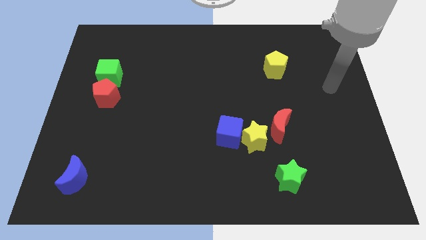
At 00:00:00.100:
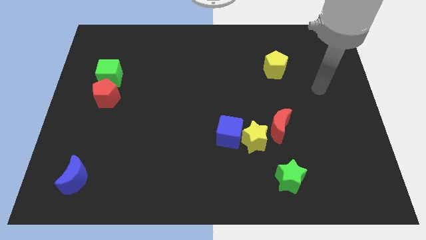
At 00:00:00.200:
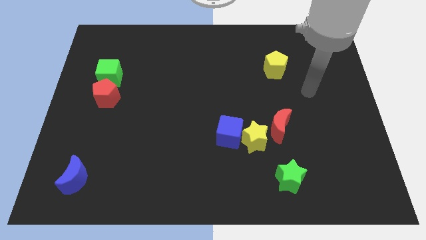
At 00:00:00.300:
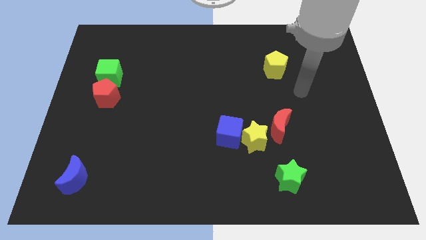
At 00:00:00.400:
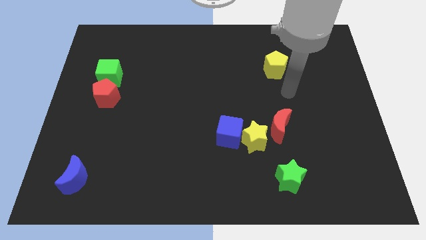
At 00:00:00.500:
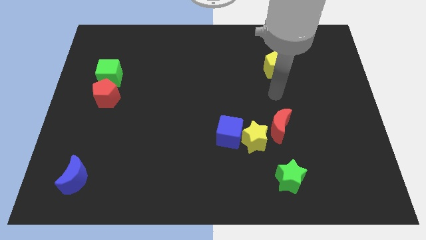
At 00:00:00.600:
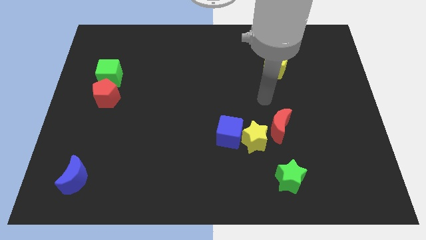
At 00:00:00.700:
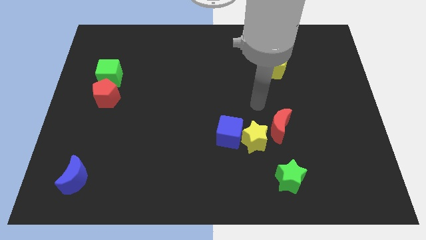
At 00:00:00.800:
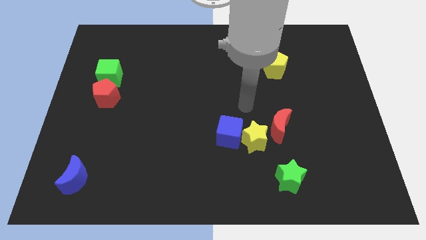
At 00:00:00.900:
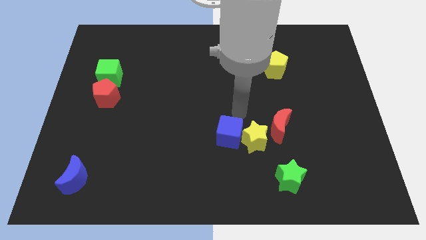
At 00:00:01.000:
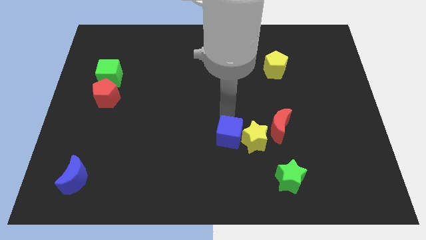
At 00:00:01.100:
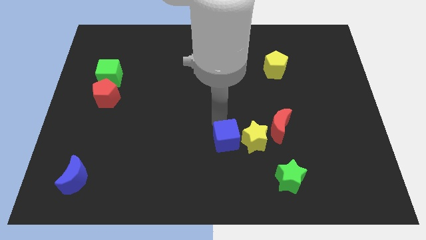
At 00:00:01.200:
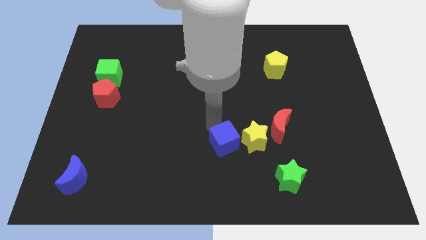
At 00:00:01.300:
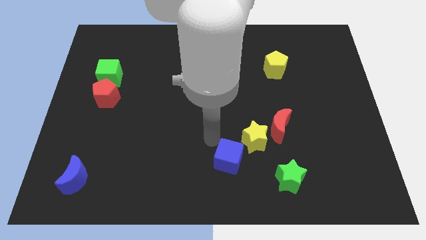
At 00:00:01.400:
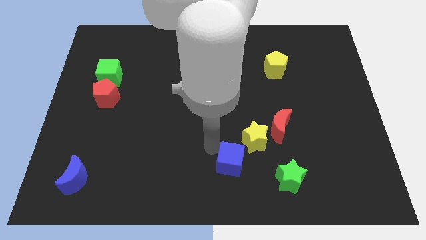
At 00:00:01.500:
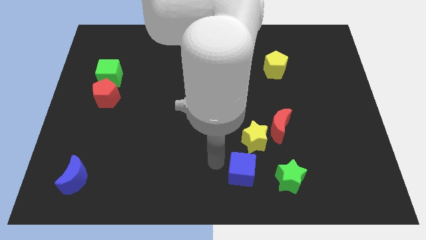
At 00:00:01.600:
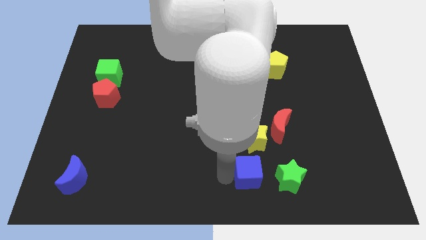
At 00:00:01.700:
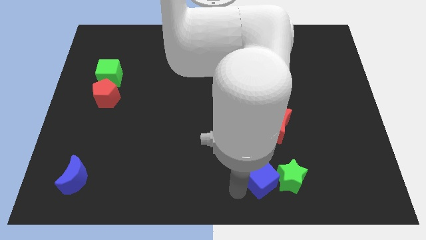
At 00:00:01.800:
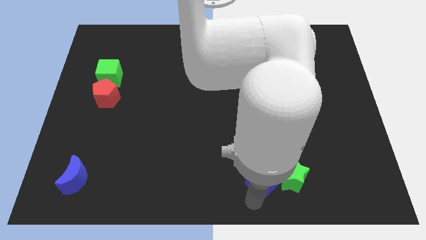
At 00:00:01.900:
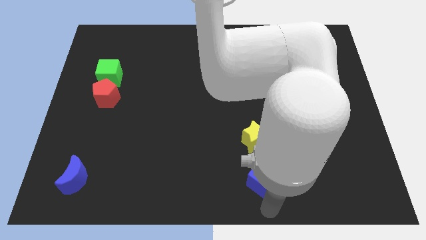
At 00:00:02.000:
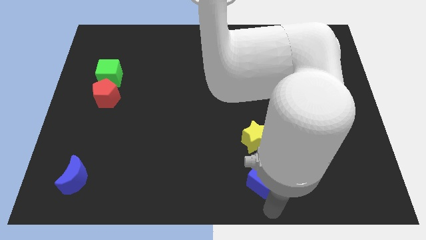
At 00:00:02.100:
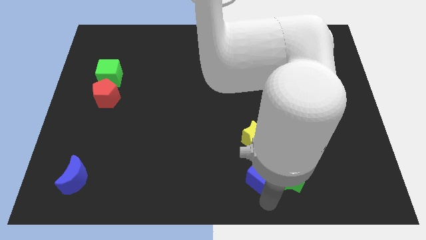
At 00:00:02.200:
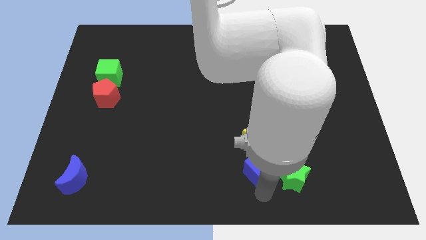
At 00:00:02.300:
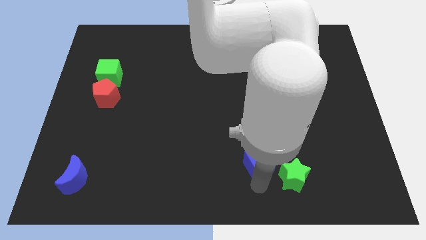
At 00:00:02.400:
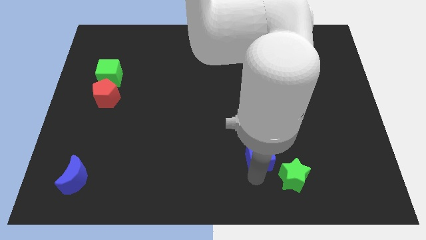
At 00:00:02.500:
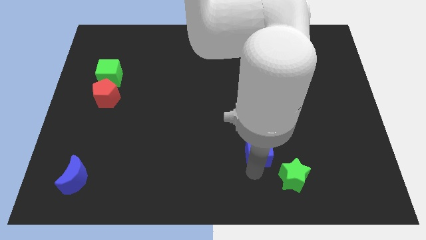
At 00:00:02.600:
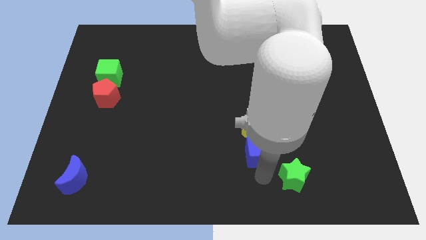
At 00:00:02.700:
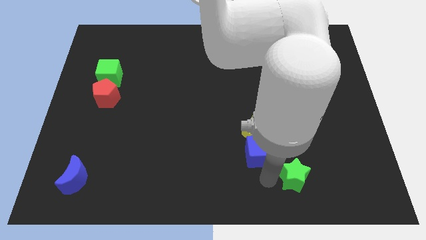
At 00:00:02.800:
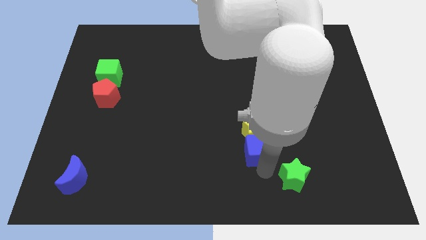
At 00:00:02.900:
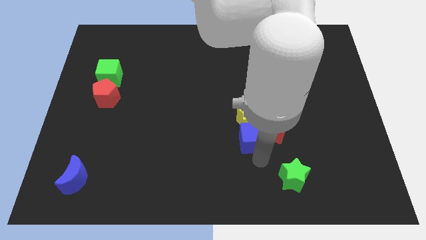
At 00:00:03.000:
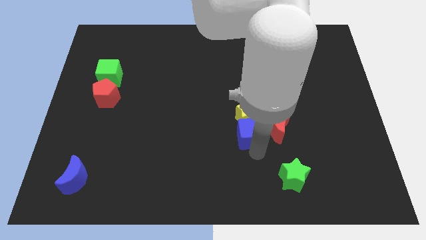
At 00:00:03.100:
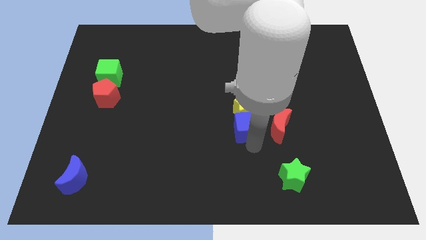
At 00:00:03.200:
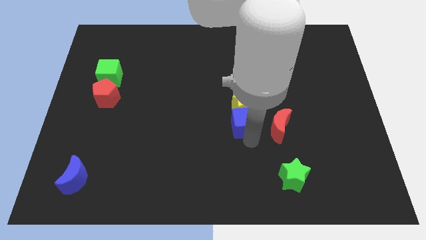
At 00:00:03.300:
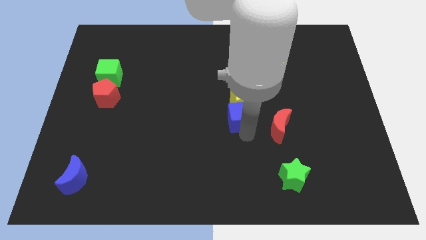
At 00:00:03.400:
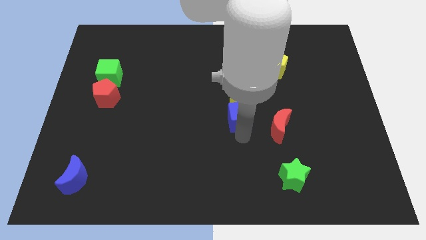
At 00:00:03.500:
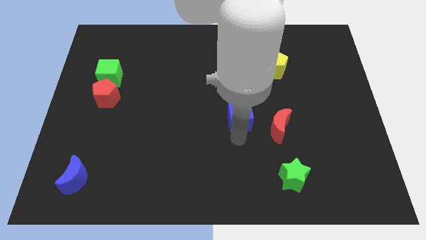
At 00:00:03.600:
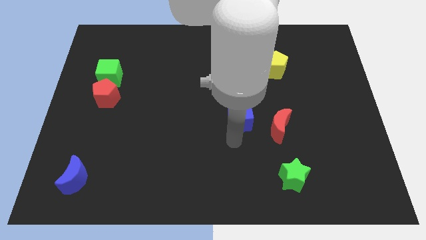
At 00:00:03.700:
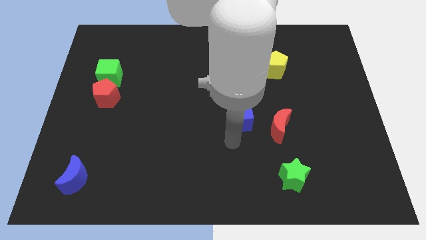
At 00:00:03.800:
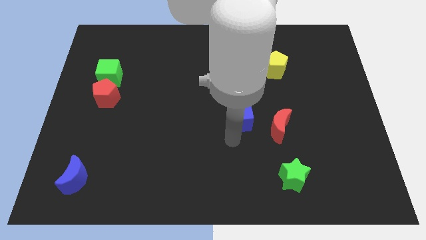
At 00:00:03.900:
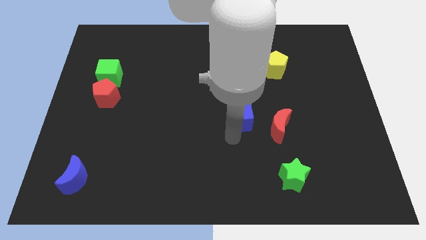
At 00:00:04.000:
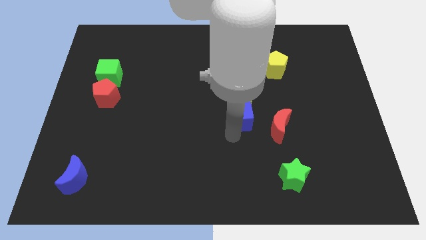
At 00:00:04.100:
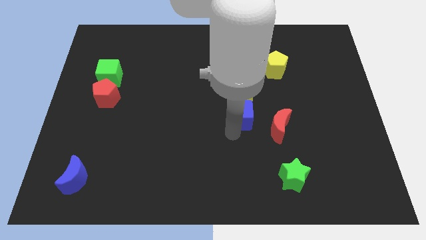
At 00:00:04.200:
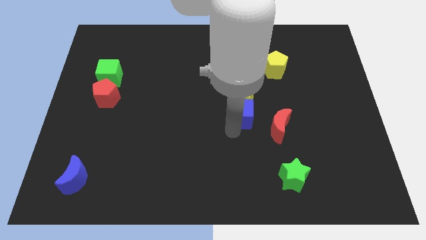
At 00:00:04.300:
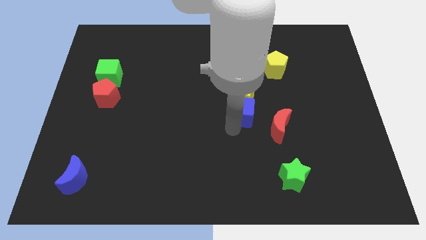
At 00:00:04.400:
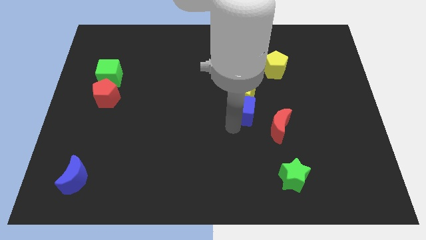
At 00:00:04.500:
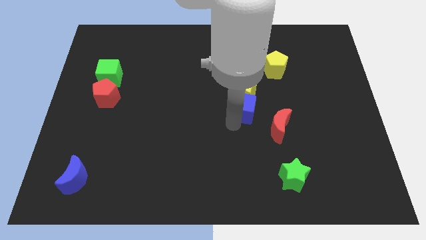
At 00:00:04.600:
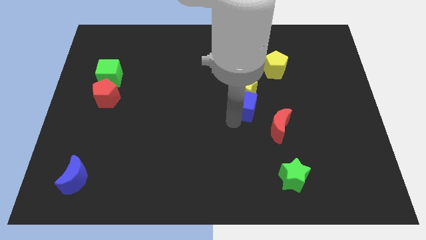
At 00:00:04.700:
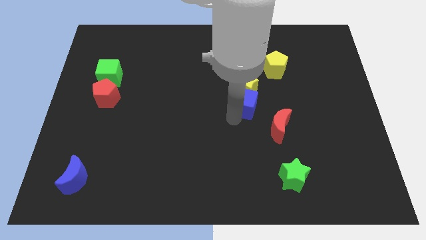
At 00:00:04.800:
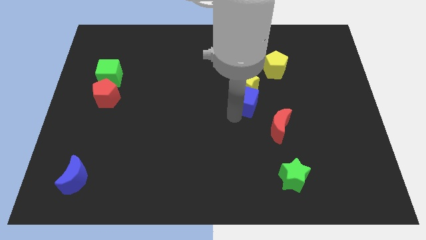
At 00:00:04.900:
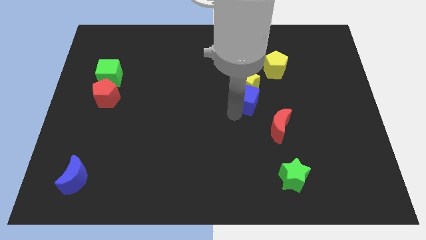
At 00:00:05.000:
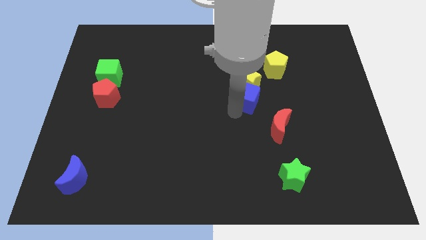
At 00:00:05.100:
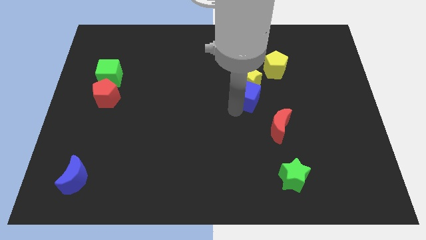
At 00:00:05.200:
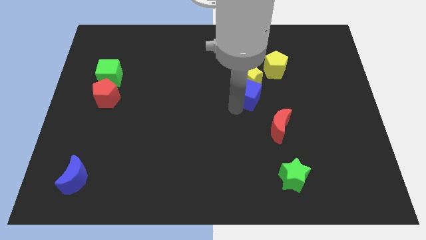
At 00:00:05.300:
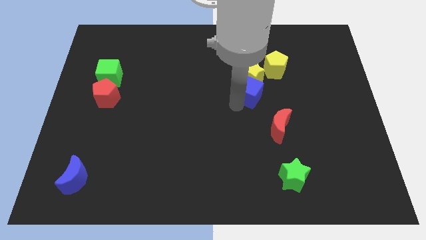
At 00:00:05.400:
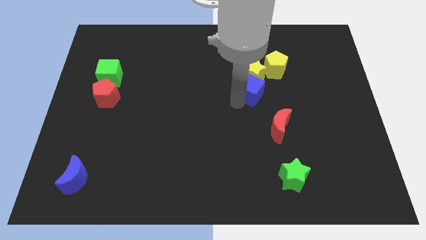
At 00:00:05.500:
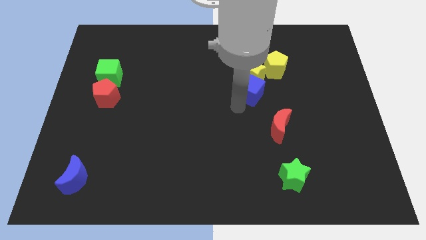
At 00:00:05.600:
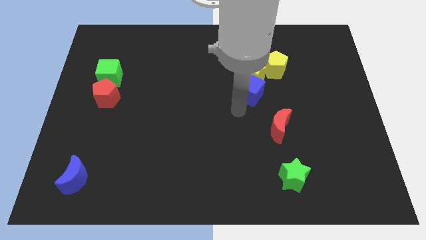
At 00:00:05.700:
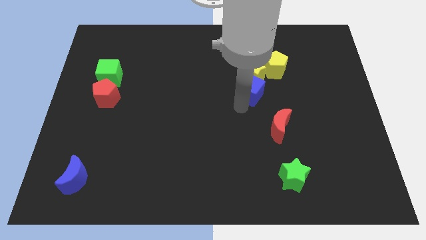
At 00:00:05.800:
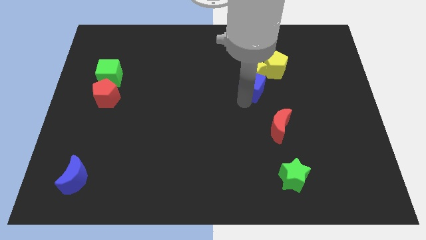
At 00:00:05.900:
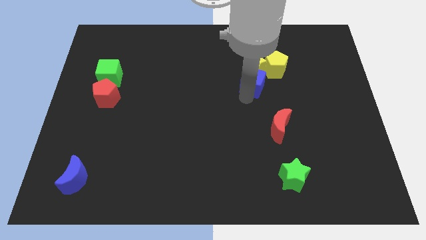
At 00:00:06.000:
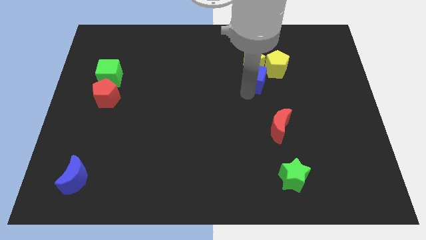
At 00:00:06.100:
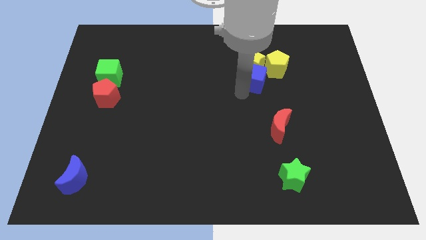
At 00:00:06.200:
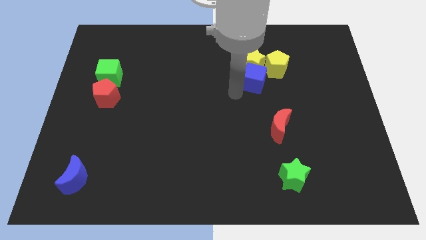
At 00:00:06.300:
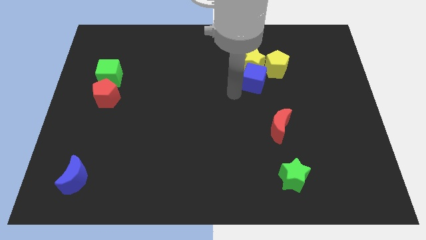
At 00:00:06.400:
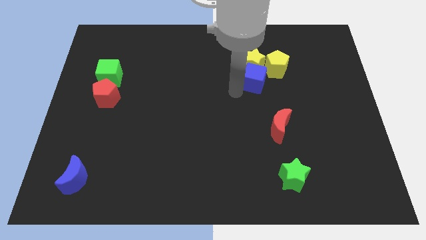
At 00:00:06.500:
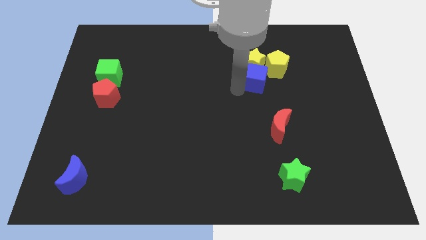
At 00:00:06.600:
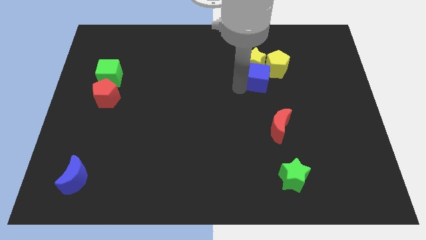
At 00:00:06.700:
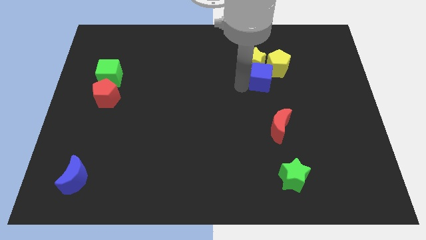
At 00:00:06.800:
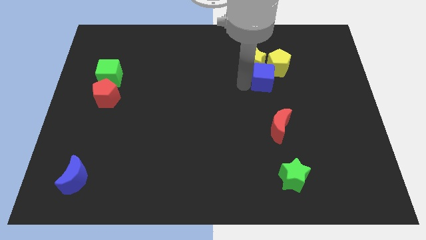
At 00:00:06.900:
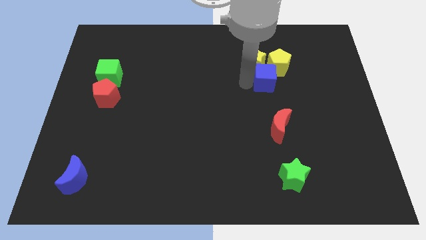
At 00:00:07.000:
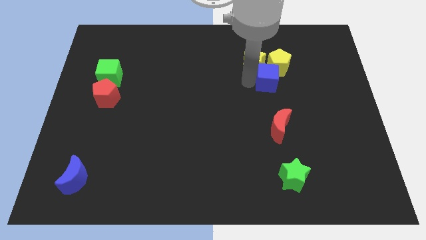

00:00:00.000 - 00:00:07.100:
slide the blue cube close to the yellow pentagon

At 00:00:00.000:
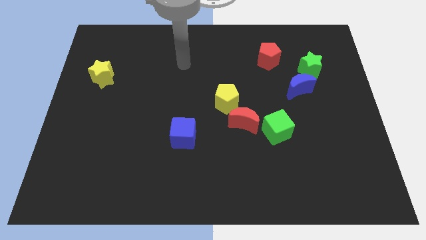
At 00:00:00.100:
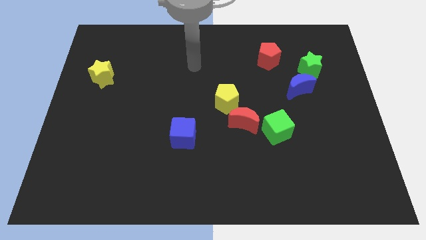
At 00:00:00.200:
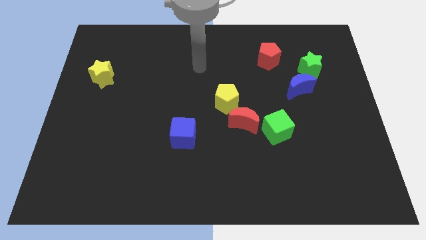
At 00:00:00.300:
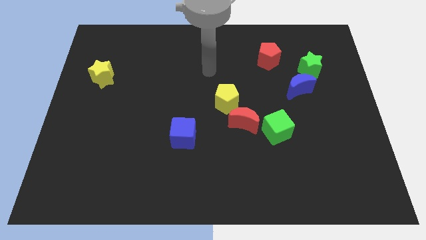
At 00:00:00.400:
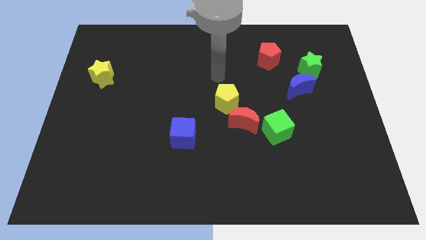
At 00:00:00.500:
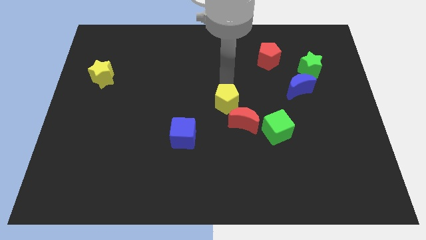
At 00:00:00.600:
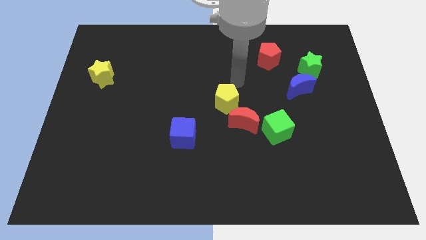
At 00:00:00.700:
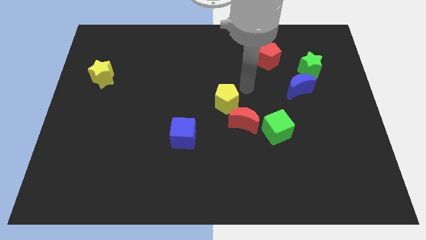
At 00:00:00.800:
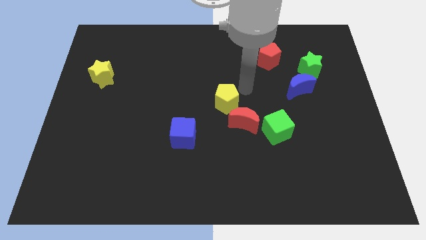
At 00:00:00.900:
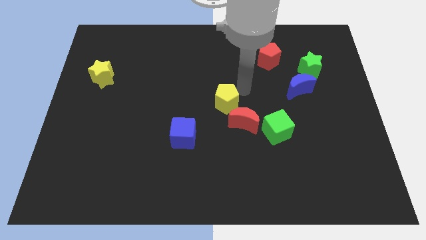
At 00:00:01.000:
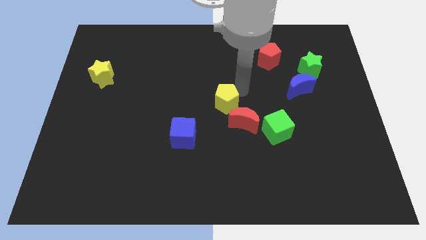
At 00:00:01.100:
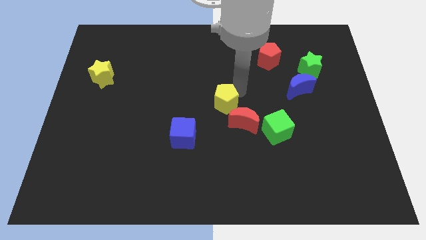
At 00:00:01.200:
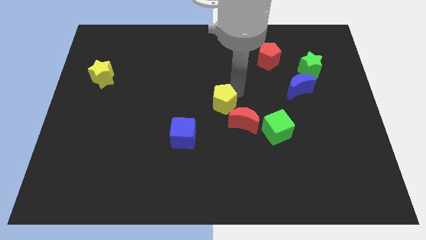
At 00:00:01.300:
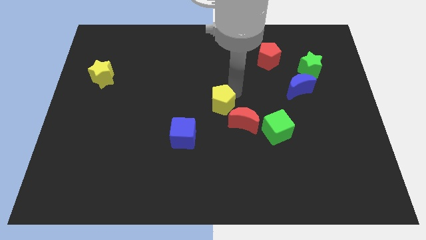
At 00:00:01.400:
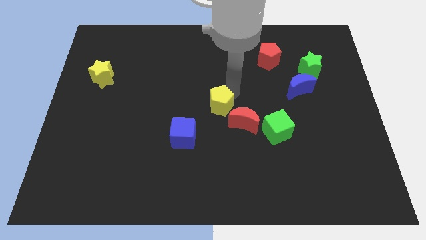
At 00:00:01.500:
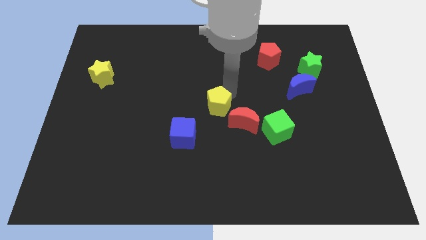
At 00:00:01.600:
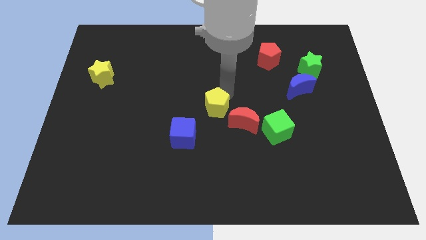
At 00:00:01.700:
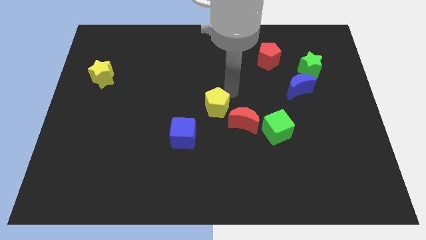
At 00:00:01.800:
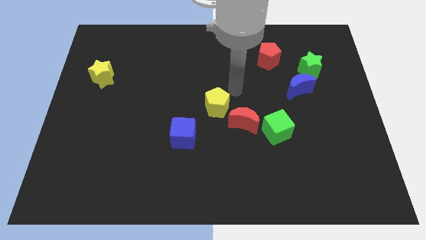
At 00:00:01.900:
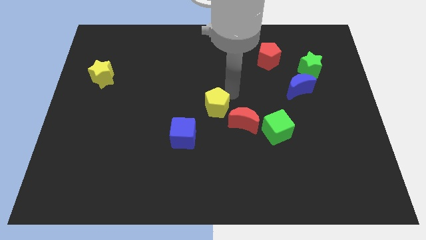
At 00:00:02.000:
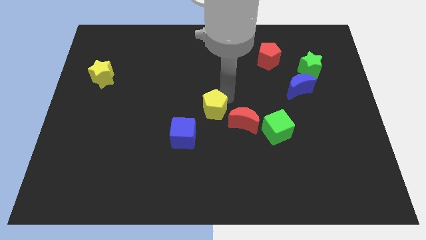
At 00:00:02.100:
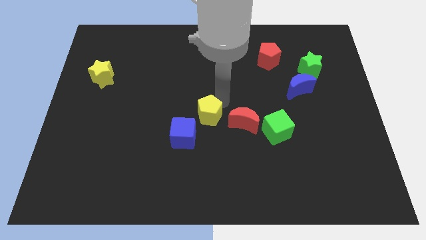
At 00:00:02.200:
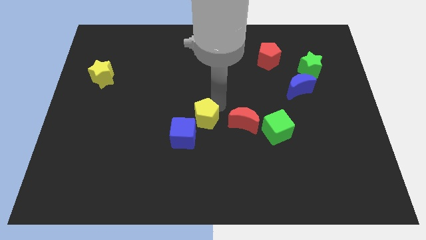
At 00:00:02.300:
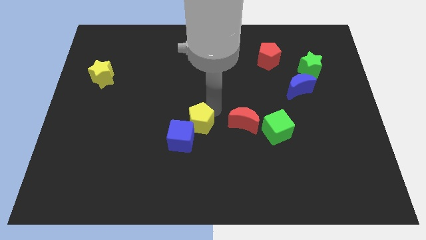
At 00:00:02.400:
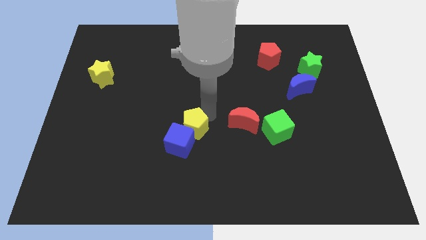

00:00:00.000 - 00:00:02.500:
put the yellow pentagon to the blue cube
